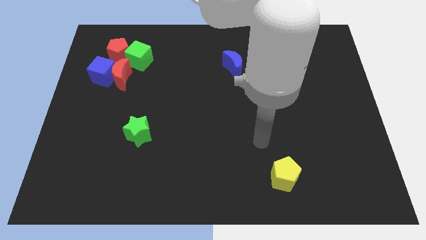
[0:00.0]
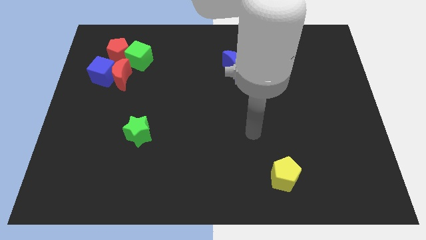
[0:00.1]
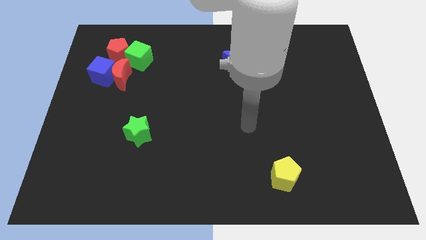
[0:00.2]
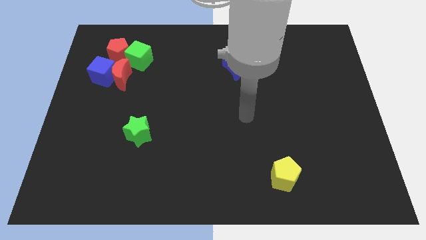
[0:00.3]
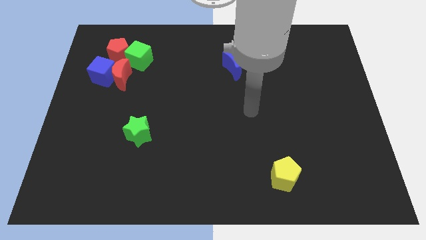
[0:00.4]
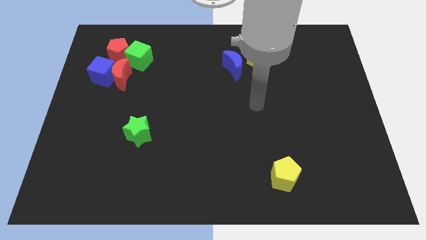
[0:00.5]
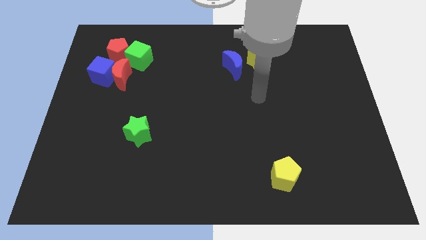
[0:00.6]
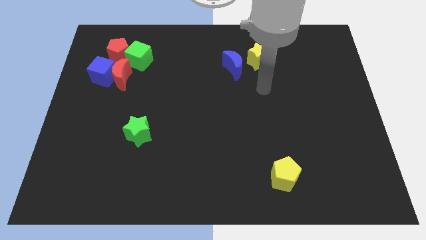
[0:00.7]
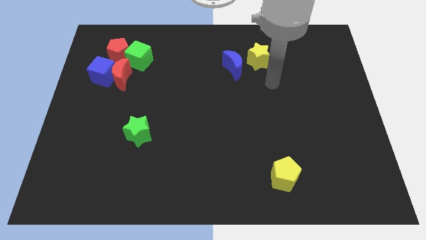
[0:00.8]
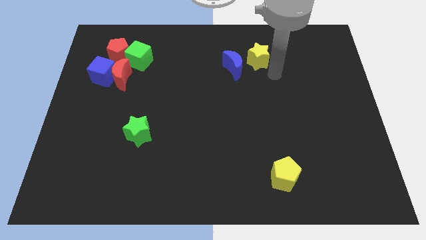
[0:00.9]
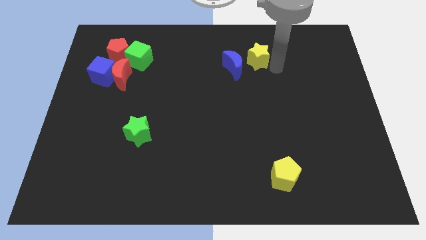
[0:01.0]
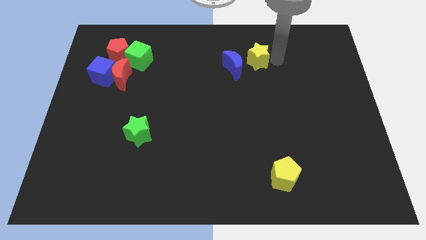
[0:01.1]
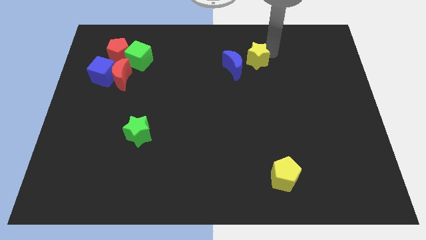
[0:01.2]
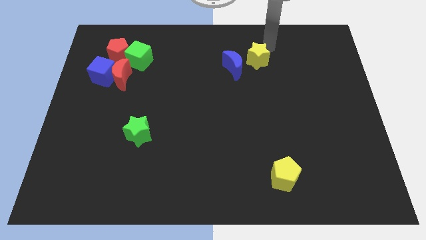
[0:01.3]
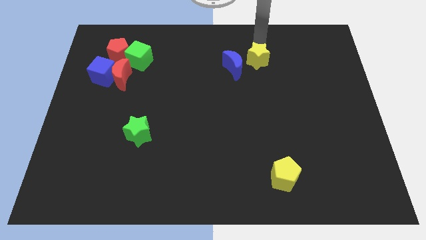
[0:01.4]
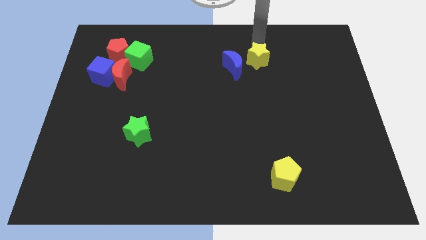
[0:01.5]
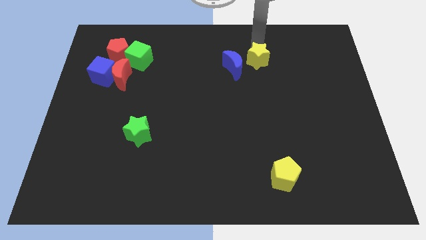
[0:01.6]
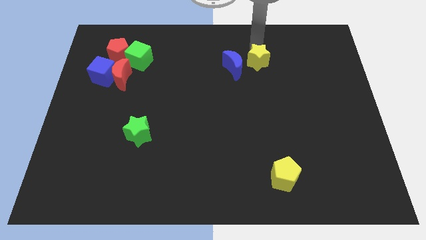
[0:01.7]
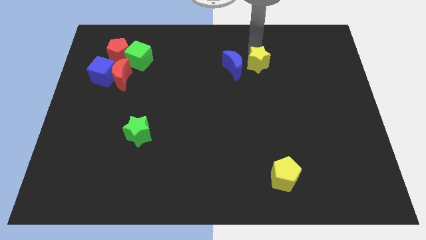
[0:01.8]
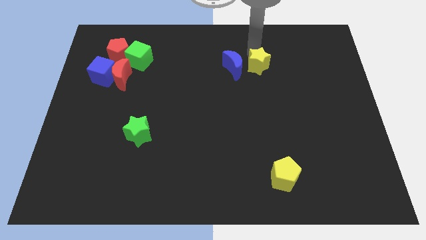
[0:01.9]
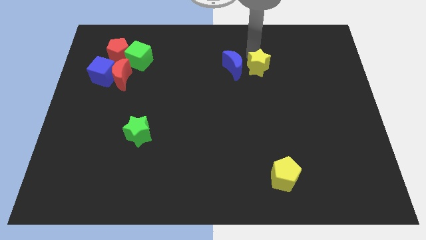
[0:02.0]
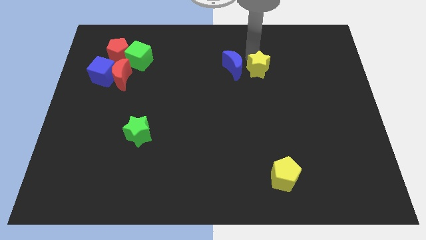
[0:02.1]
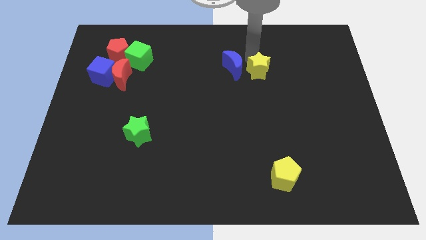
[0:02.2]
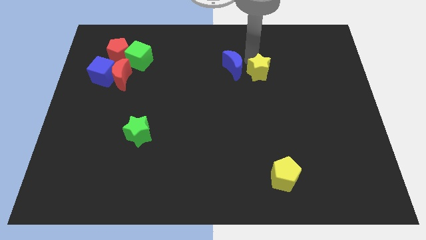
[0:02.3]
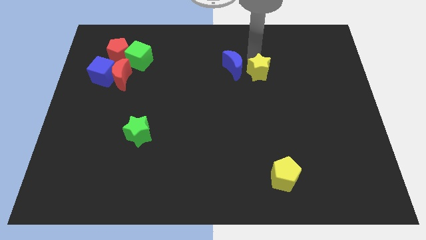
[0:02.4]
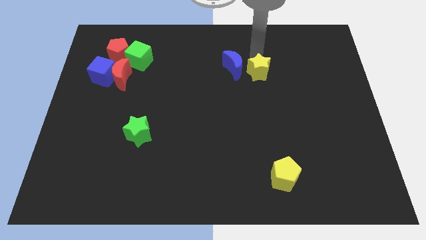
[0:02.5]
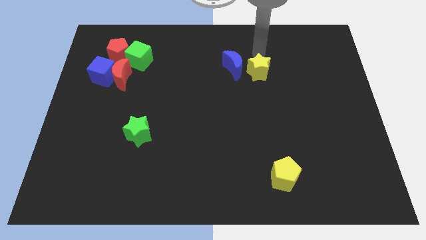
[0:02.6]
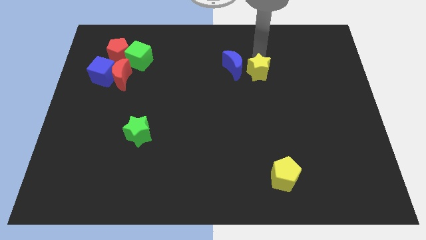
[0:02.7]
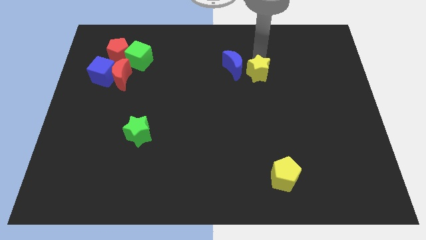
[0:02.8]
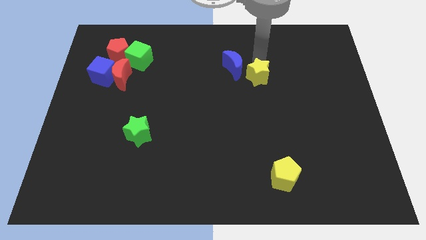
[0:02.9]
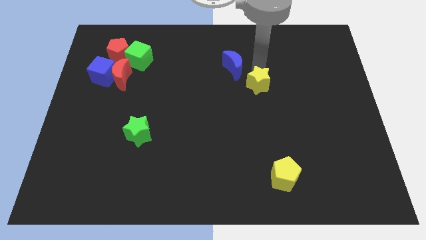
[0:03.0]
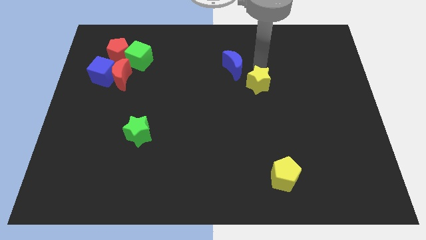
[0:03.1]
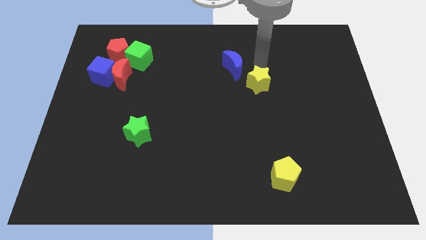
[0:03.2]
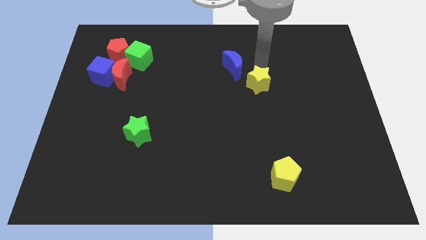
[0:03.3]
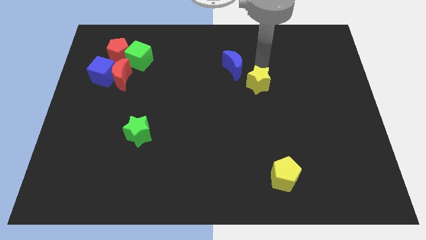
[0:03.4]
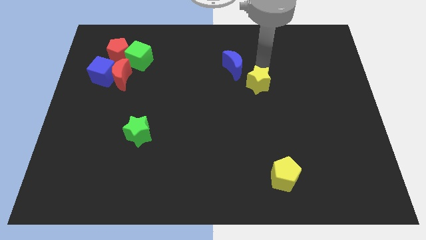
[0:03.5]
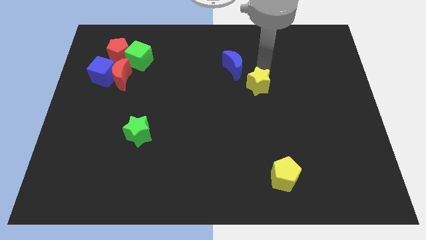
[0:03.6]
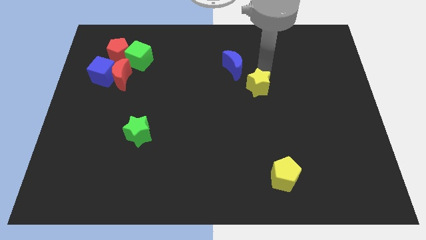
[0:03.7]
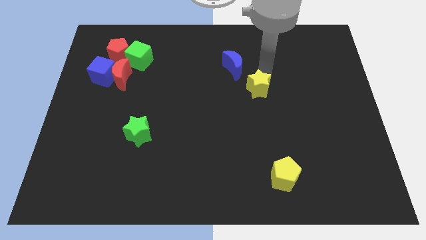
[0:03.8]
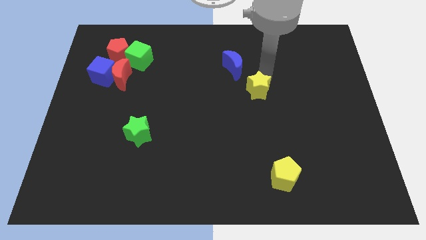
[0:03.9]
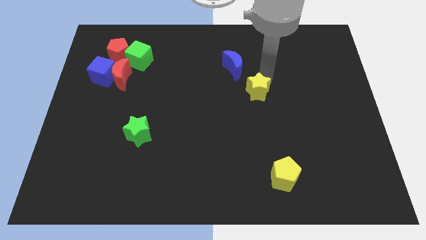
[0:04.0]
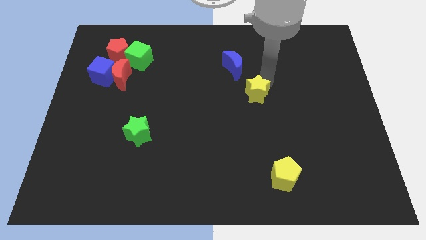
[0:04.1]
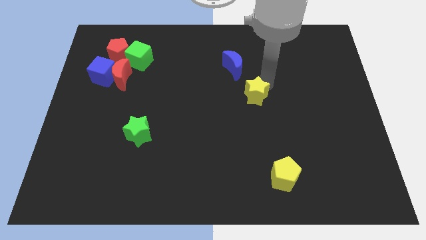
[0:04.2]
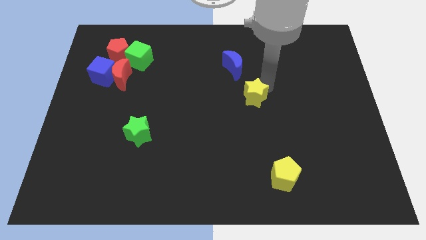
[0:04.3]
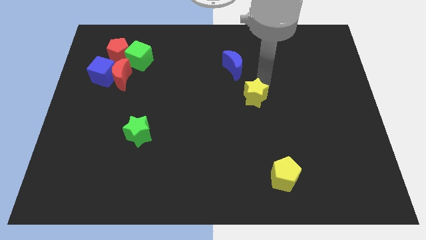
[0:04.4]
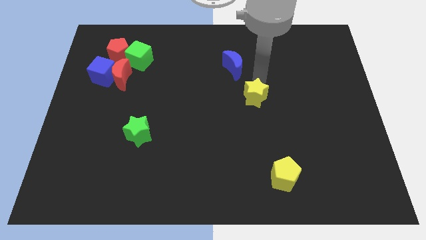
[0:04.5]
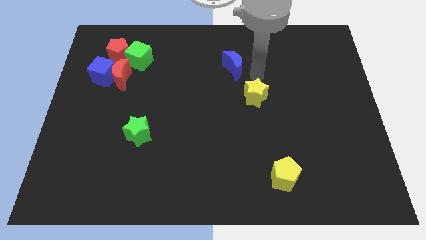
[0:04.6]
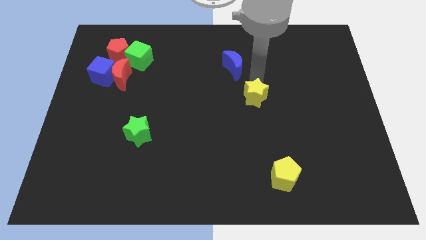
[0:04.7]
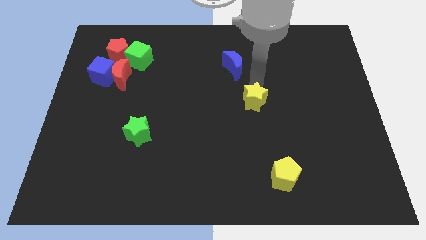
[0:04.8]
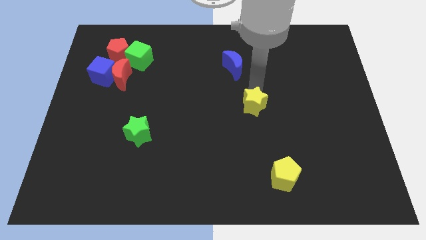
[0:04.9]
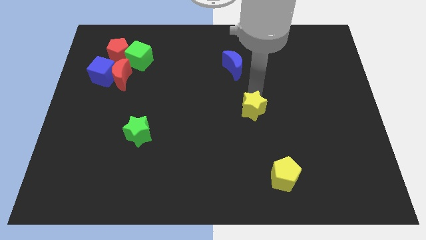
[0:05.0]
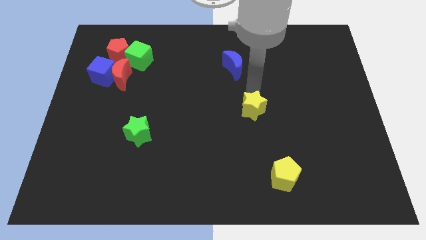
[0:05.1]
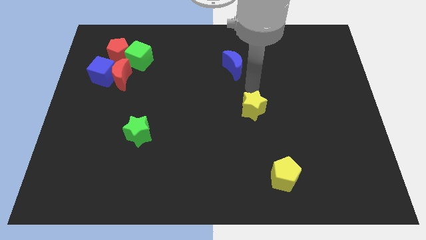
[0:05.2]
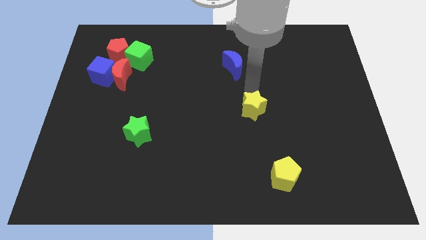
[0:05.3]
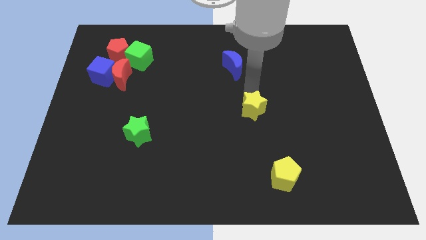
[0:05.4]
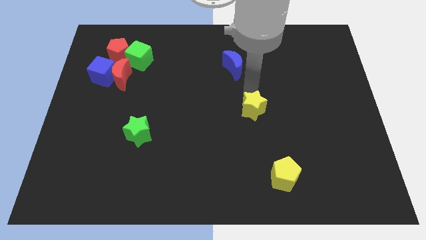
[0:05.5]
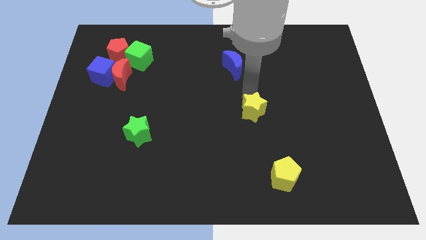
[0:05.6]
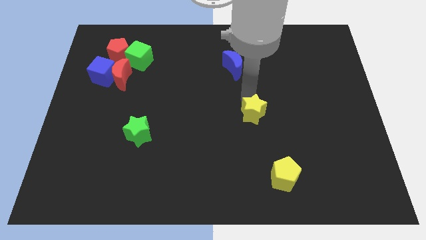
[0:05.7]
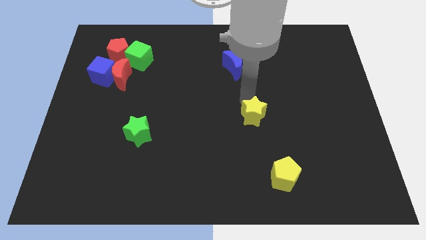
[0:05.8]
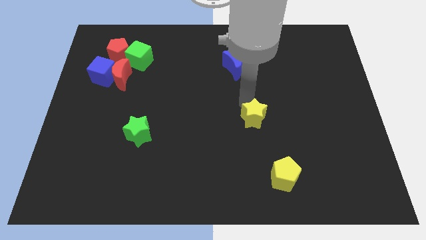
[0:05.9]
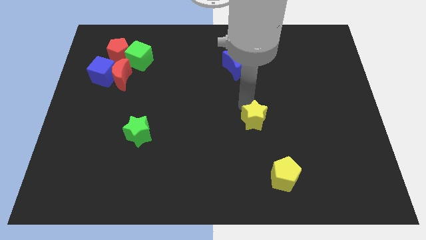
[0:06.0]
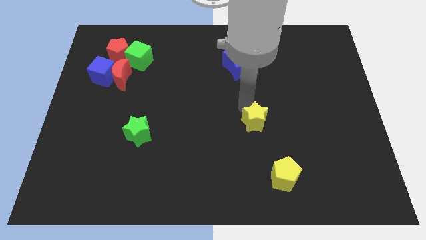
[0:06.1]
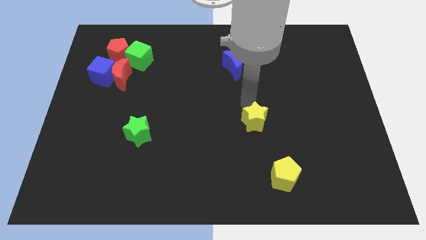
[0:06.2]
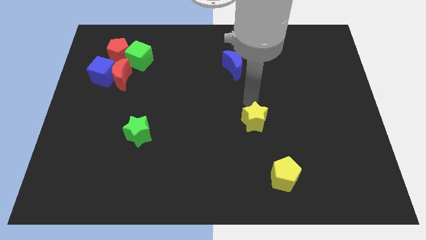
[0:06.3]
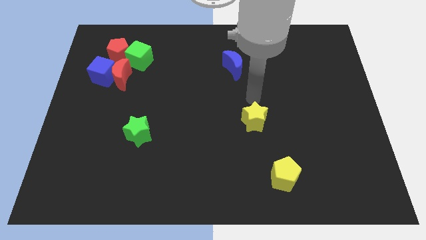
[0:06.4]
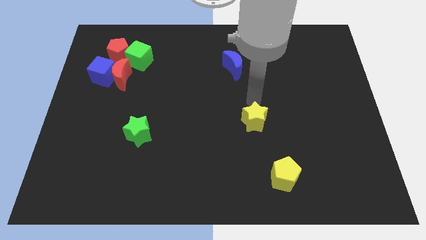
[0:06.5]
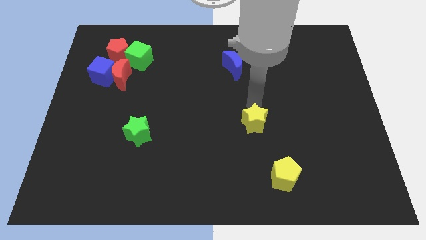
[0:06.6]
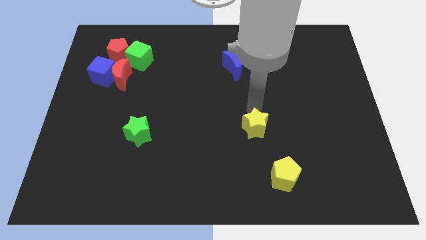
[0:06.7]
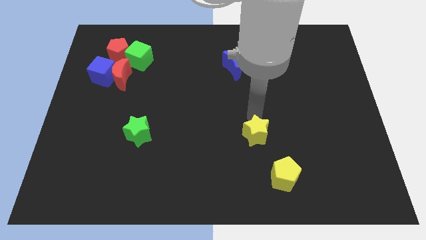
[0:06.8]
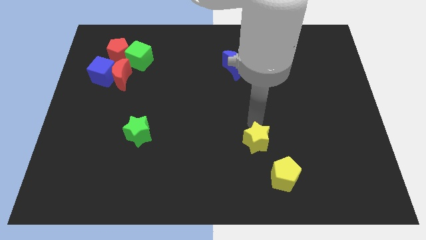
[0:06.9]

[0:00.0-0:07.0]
slide the yellow star to the top left of the yellow pentagon
